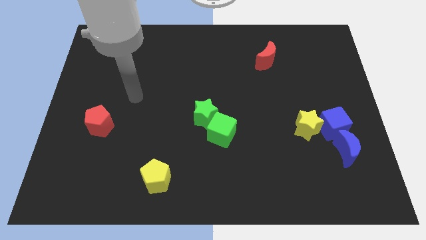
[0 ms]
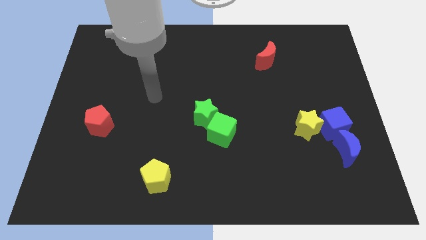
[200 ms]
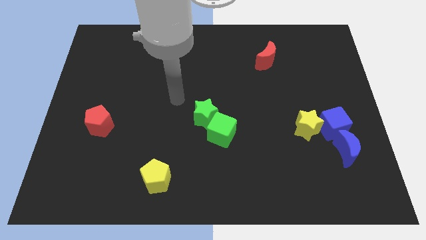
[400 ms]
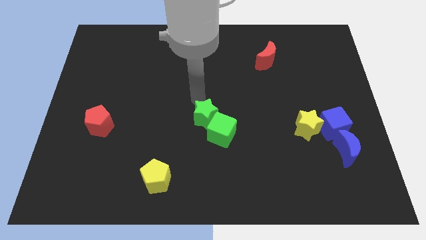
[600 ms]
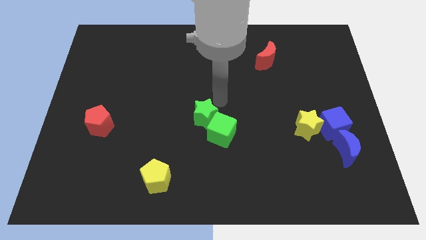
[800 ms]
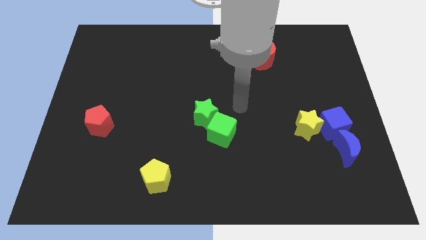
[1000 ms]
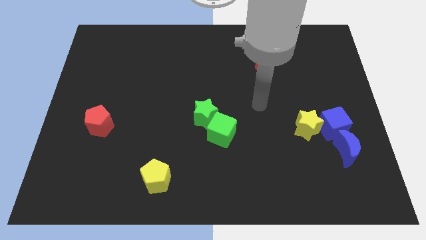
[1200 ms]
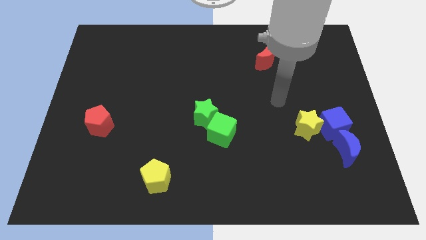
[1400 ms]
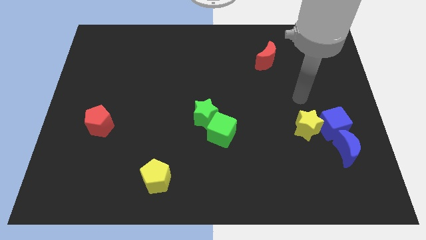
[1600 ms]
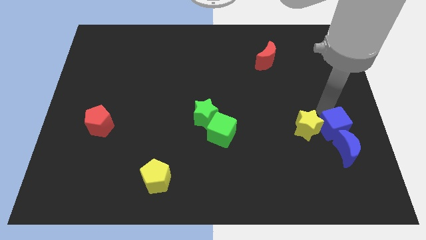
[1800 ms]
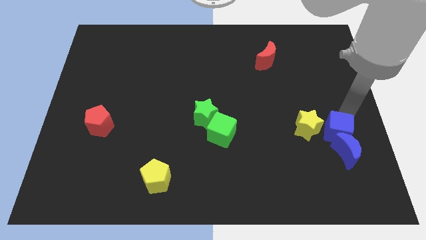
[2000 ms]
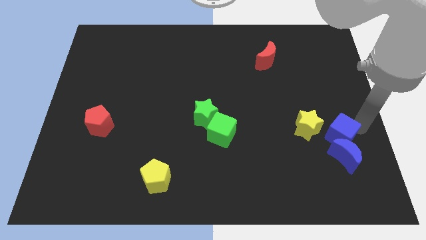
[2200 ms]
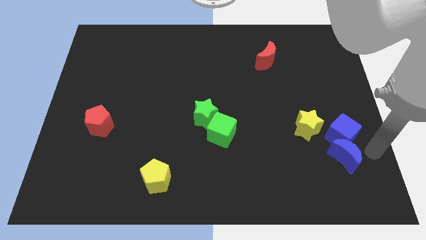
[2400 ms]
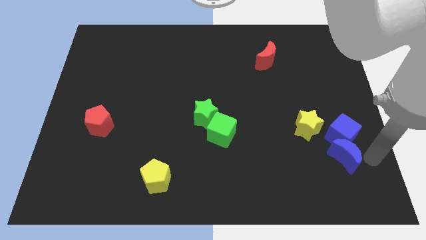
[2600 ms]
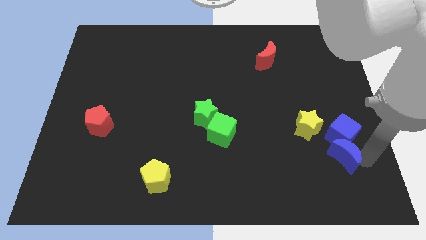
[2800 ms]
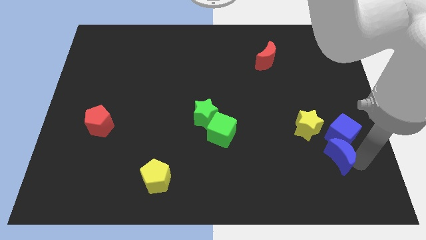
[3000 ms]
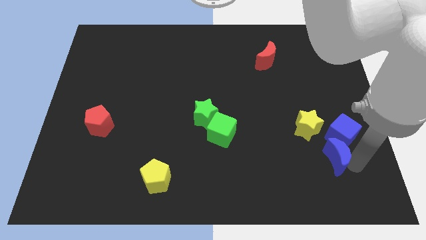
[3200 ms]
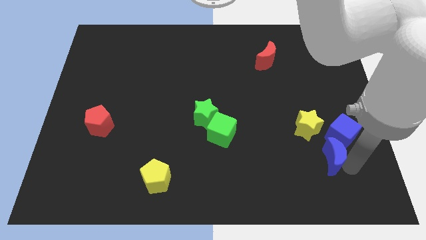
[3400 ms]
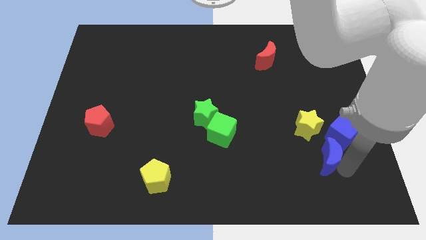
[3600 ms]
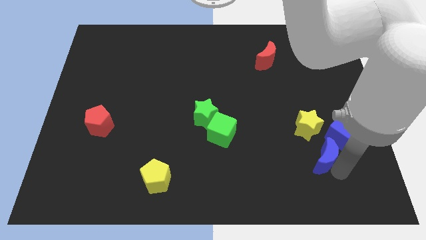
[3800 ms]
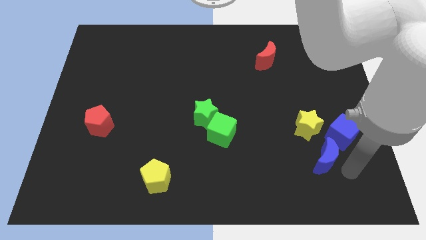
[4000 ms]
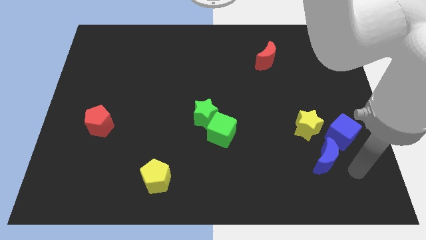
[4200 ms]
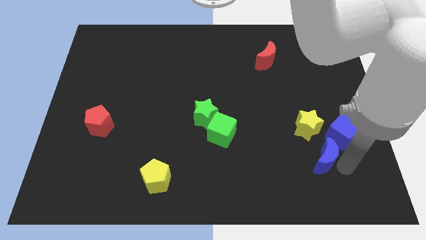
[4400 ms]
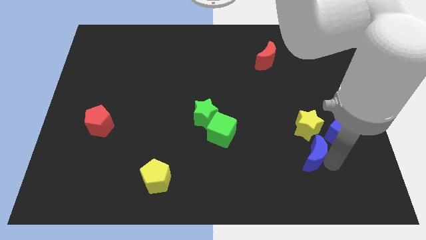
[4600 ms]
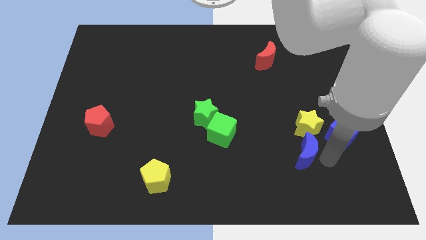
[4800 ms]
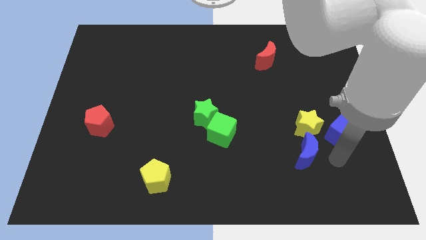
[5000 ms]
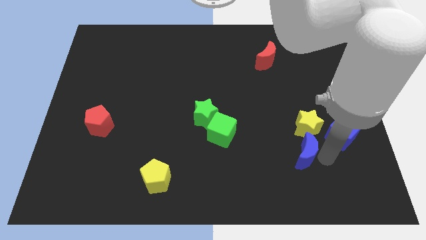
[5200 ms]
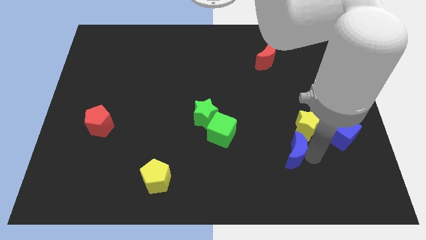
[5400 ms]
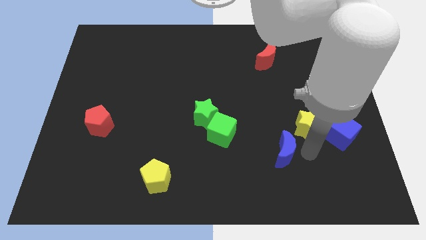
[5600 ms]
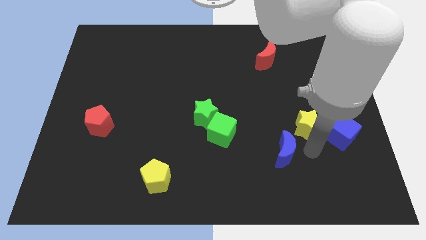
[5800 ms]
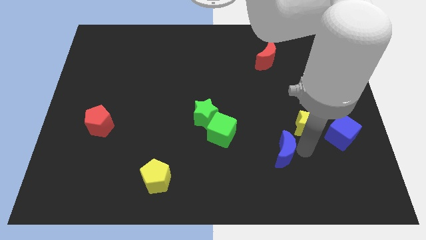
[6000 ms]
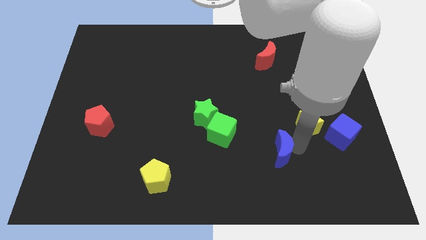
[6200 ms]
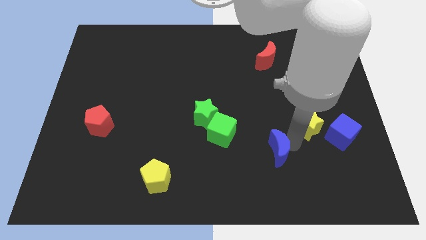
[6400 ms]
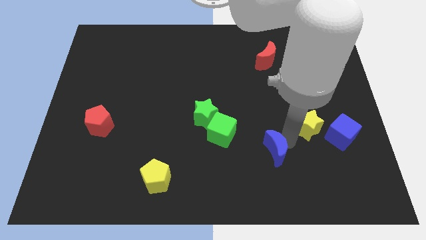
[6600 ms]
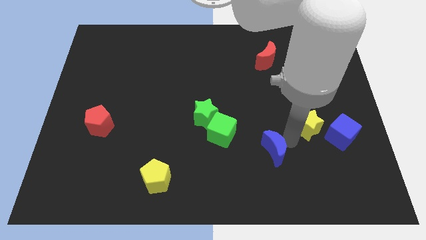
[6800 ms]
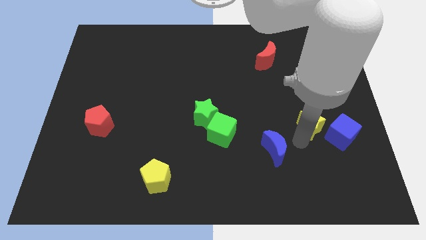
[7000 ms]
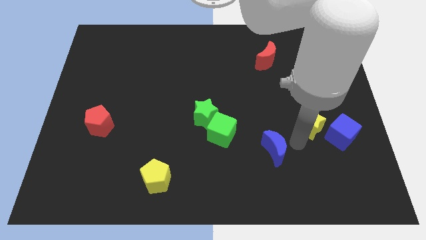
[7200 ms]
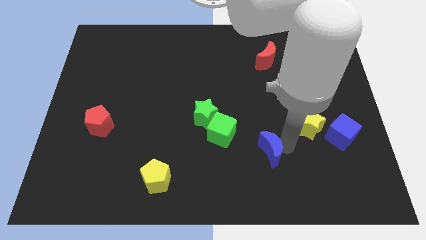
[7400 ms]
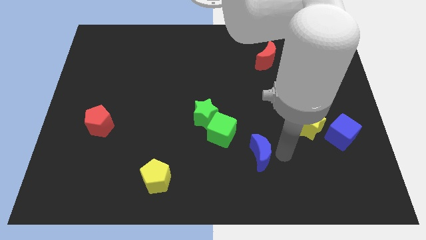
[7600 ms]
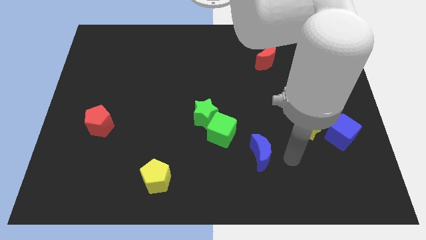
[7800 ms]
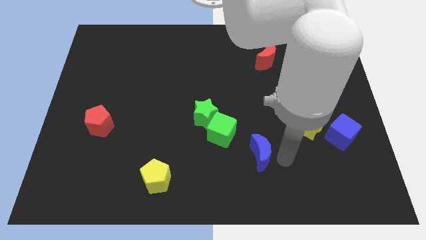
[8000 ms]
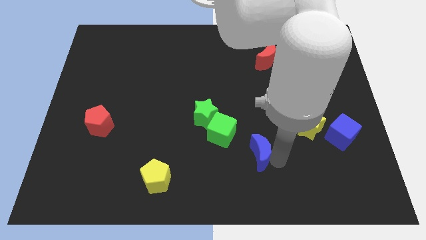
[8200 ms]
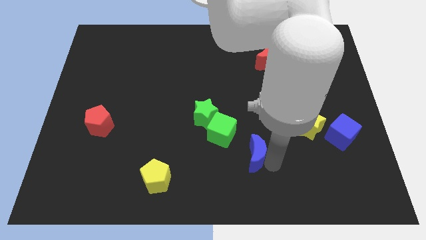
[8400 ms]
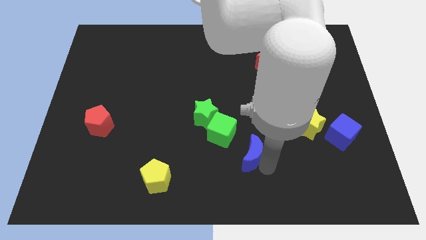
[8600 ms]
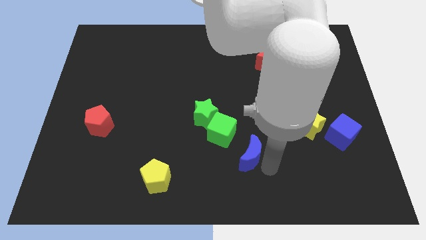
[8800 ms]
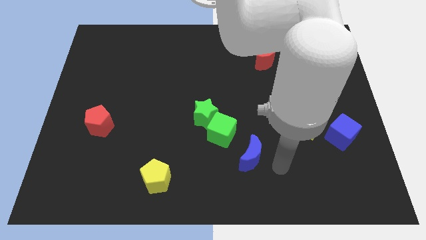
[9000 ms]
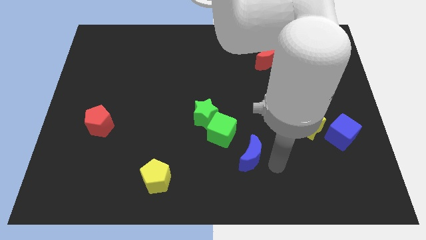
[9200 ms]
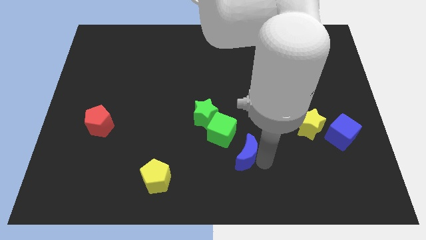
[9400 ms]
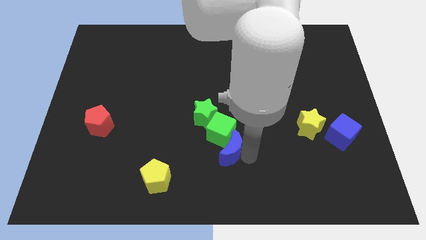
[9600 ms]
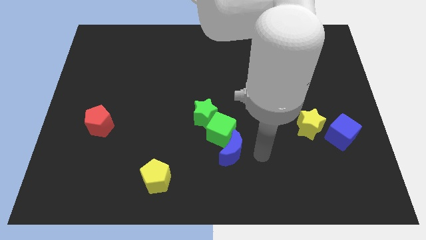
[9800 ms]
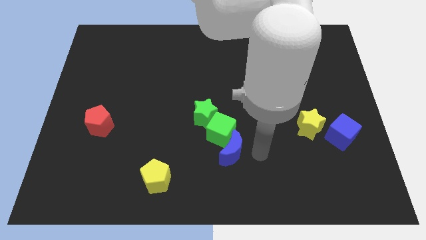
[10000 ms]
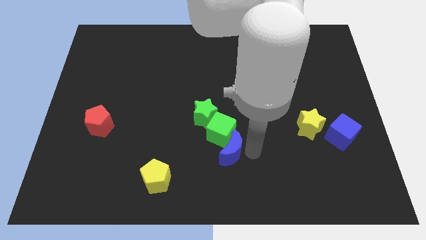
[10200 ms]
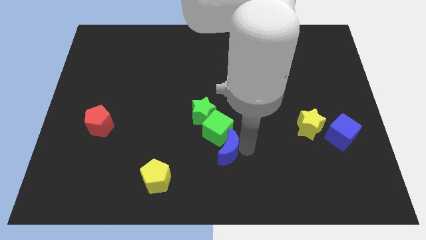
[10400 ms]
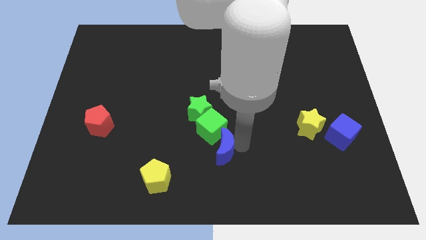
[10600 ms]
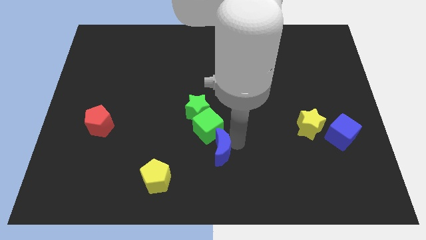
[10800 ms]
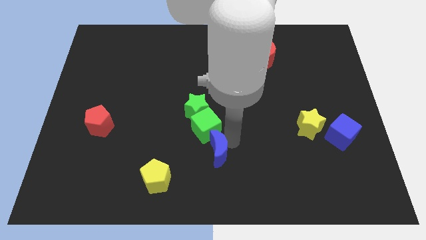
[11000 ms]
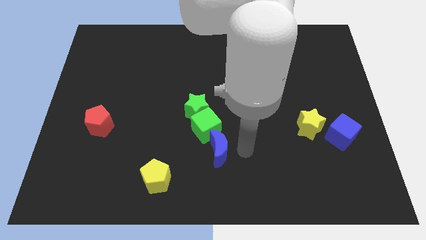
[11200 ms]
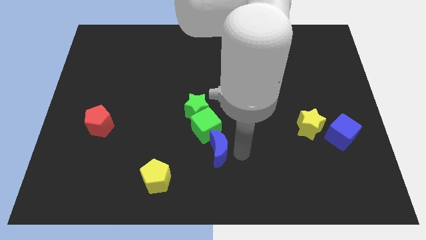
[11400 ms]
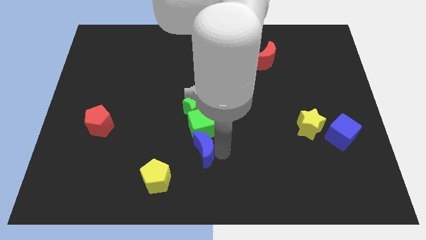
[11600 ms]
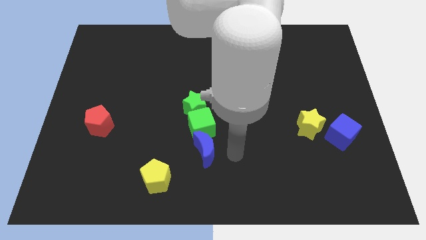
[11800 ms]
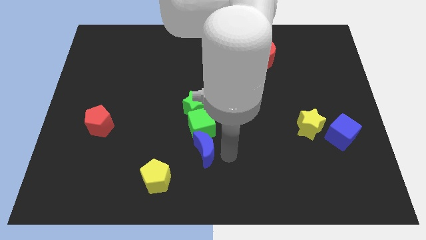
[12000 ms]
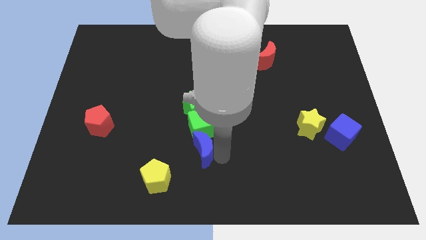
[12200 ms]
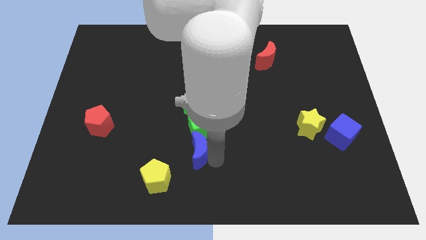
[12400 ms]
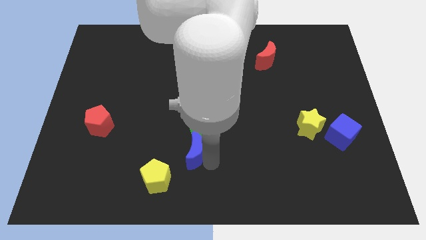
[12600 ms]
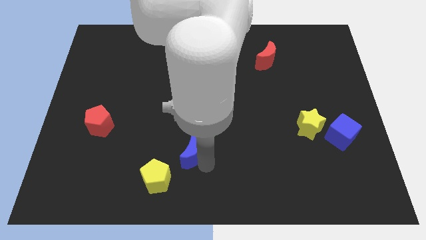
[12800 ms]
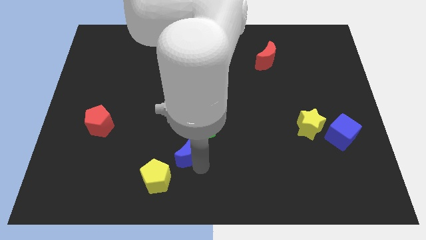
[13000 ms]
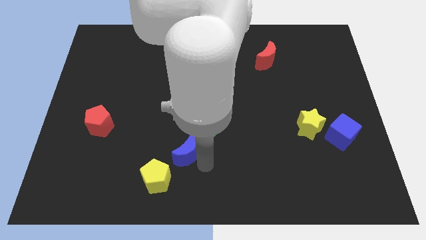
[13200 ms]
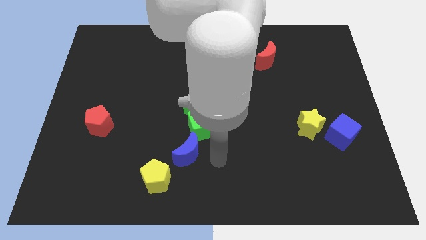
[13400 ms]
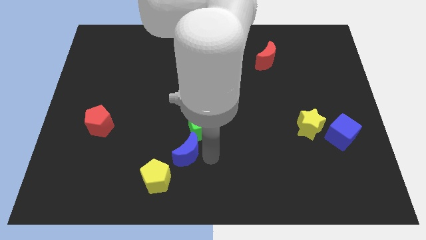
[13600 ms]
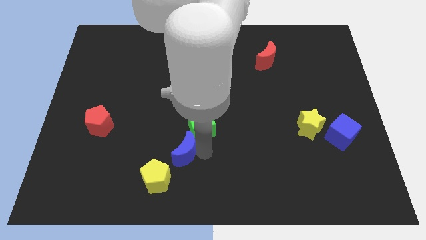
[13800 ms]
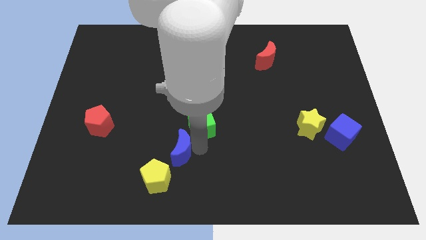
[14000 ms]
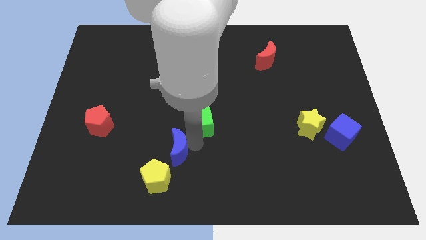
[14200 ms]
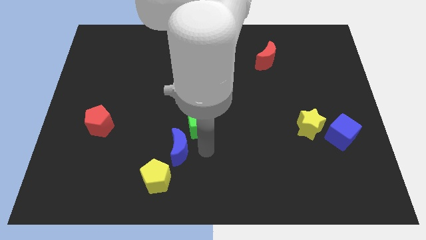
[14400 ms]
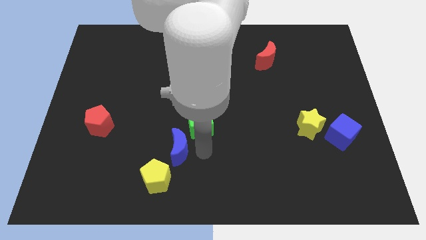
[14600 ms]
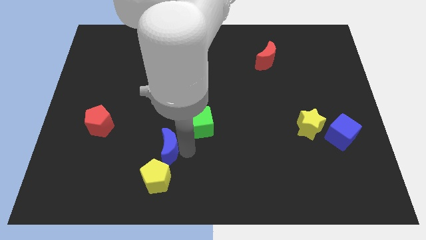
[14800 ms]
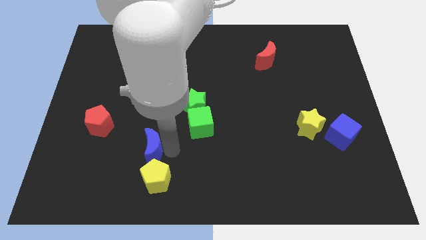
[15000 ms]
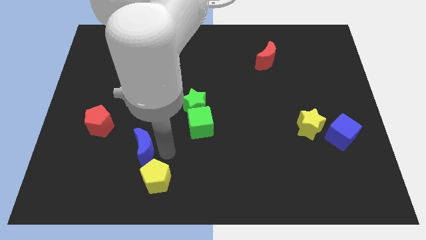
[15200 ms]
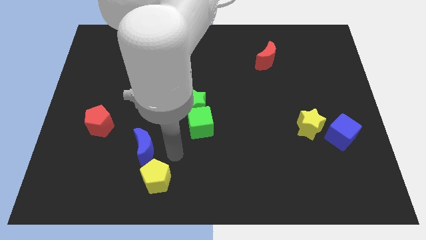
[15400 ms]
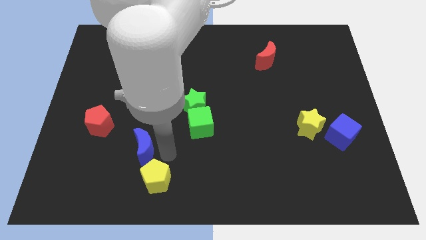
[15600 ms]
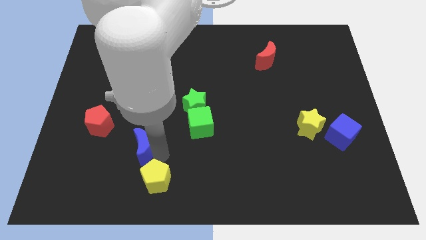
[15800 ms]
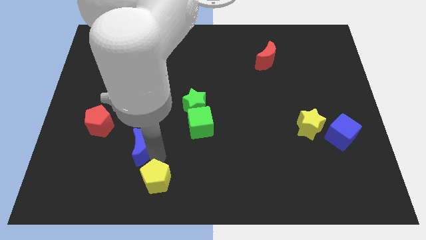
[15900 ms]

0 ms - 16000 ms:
move the blue moon to the bottom right side of the red pentagon
